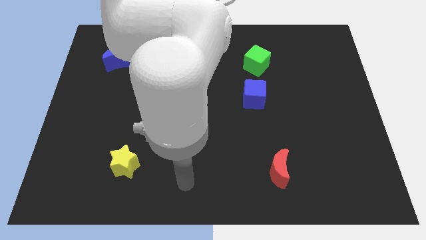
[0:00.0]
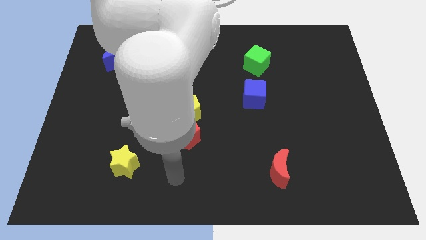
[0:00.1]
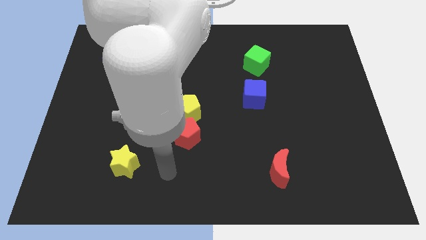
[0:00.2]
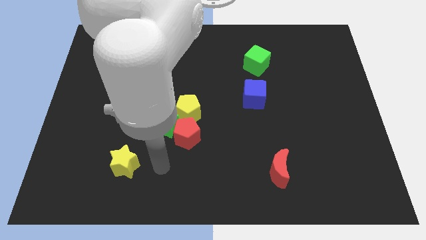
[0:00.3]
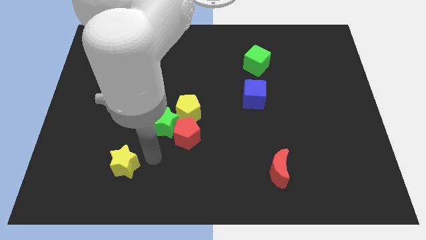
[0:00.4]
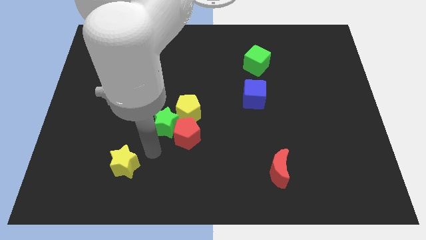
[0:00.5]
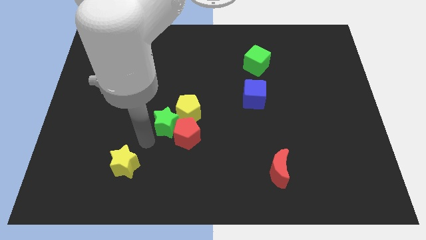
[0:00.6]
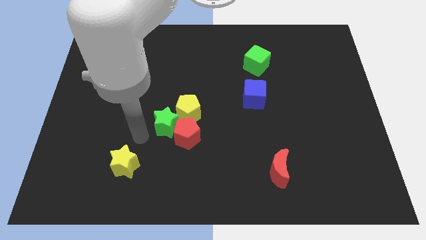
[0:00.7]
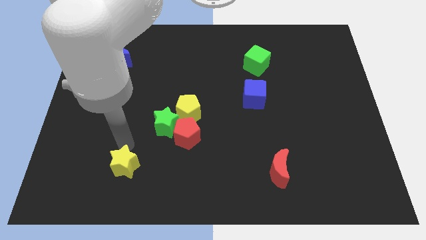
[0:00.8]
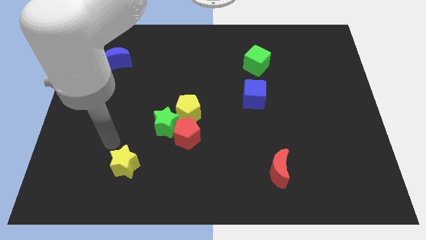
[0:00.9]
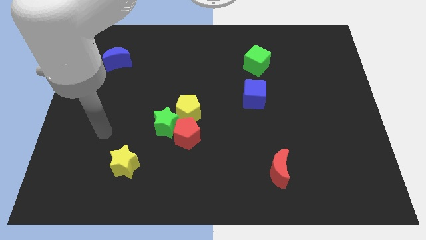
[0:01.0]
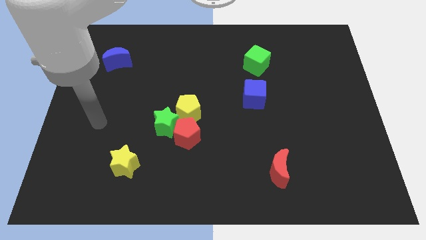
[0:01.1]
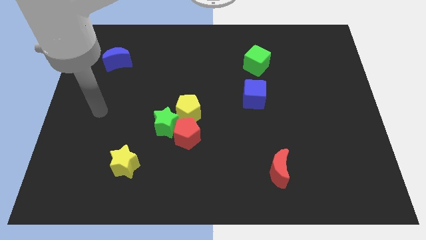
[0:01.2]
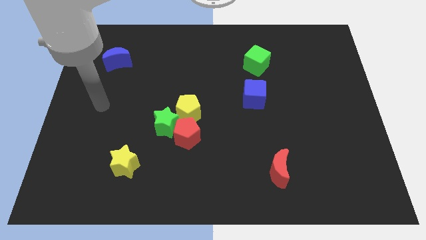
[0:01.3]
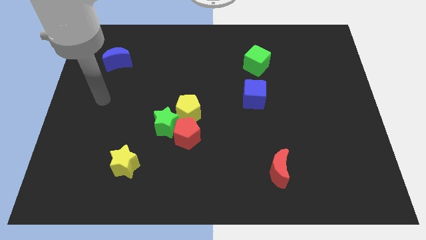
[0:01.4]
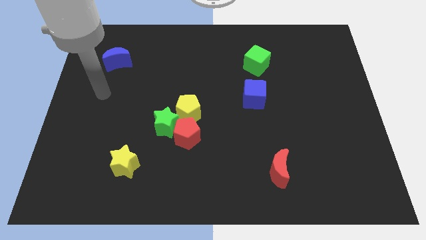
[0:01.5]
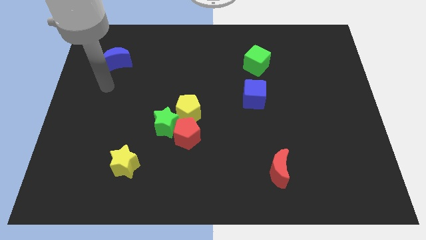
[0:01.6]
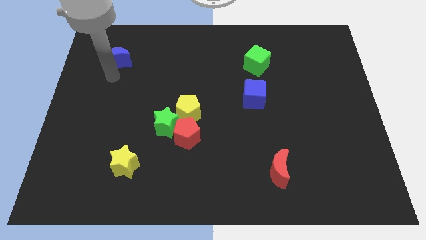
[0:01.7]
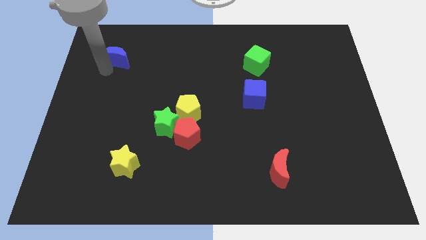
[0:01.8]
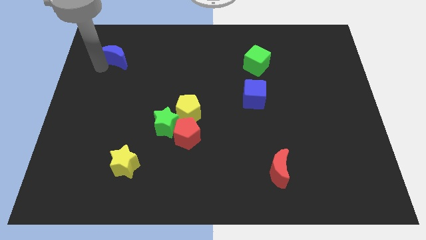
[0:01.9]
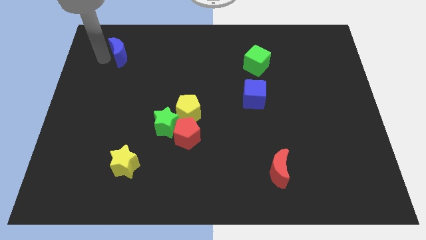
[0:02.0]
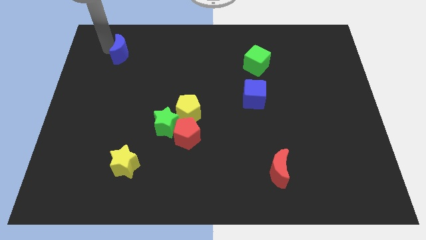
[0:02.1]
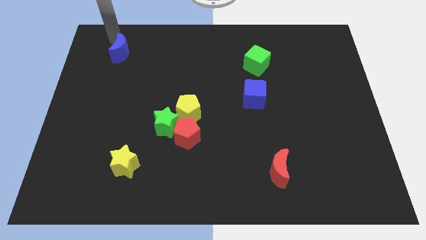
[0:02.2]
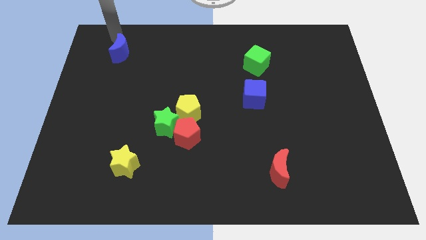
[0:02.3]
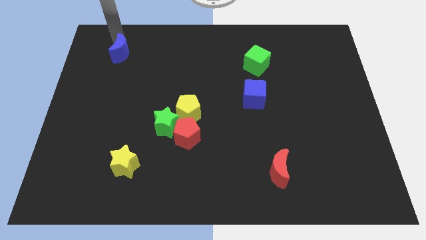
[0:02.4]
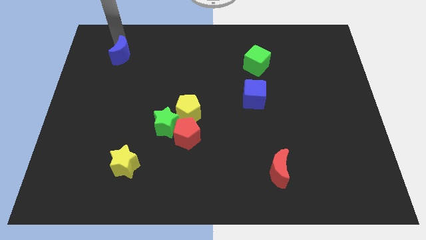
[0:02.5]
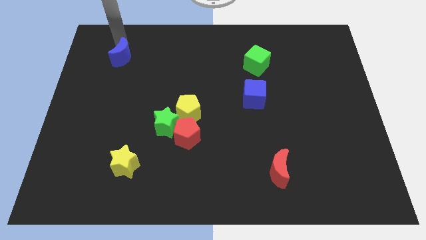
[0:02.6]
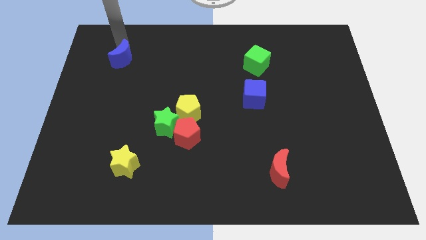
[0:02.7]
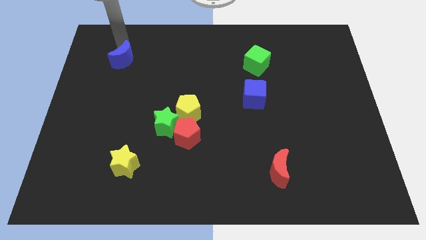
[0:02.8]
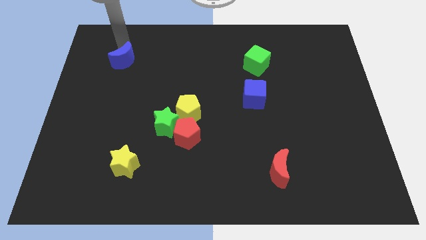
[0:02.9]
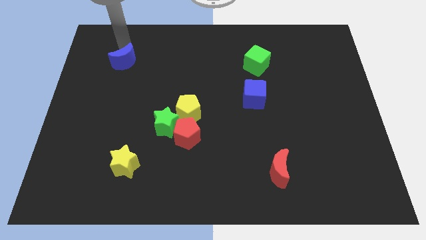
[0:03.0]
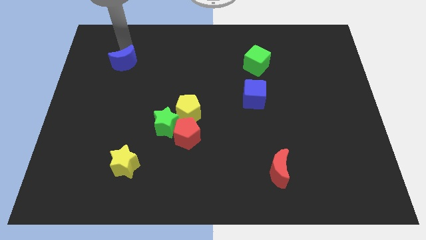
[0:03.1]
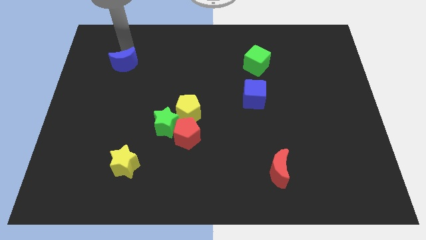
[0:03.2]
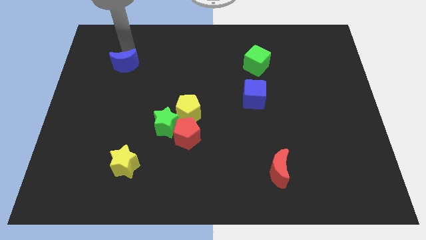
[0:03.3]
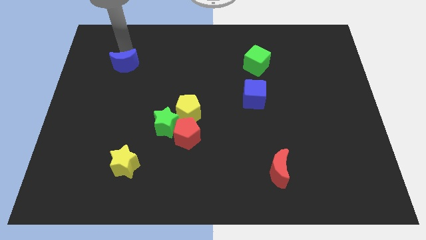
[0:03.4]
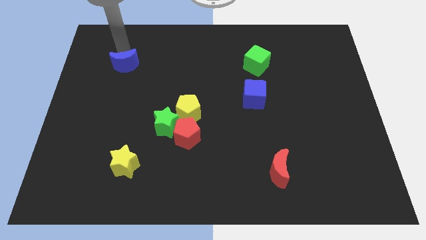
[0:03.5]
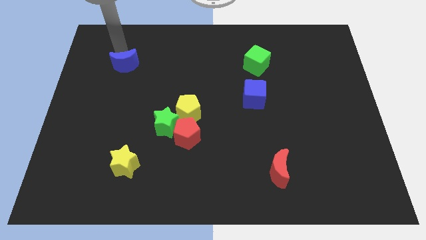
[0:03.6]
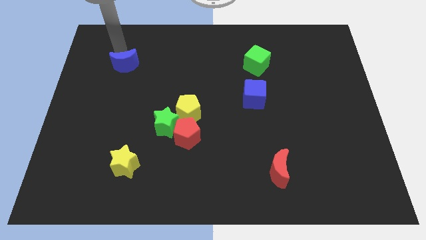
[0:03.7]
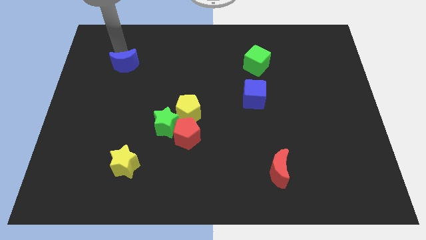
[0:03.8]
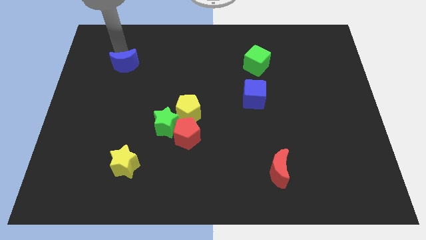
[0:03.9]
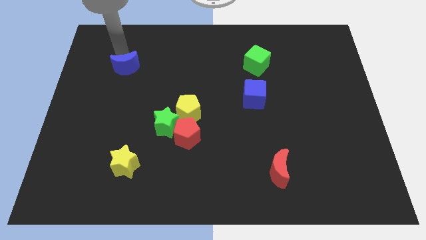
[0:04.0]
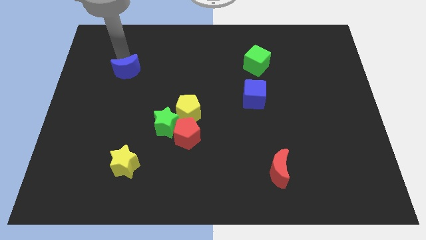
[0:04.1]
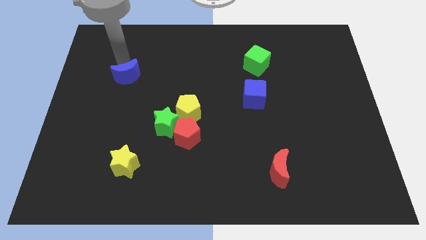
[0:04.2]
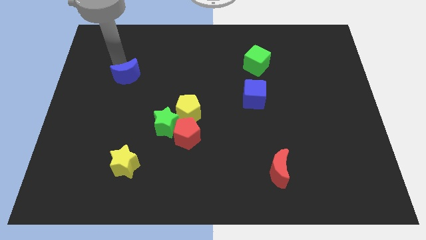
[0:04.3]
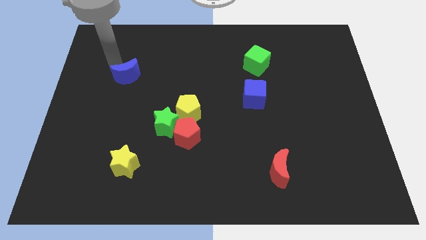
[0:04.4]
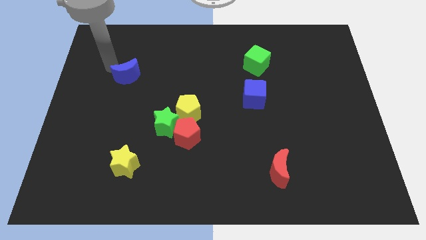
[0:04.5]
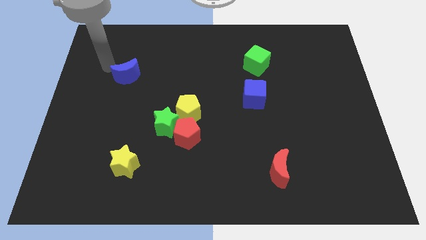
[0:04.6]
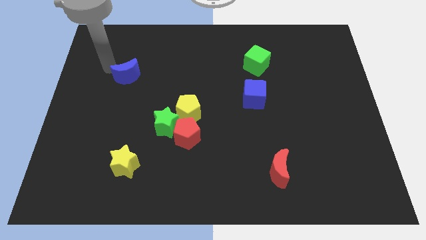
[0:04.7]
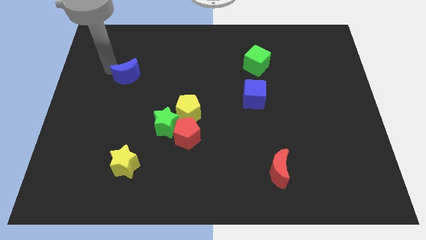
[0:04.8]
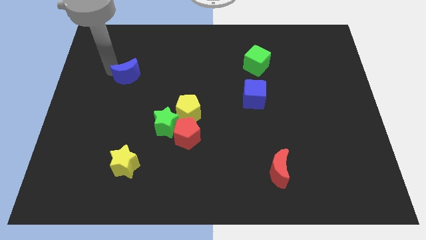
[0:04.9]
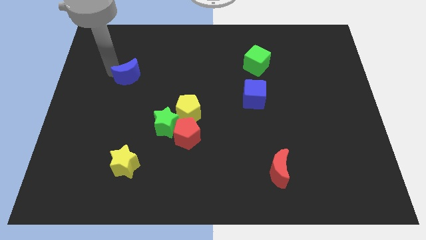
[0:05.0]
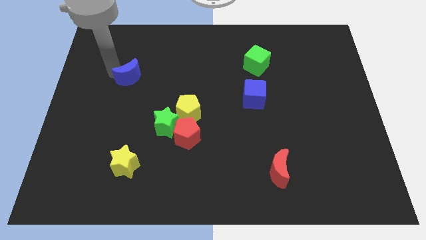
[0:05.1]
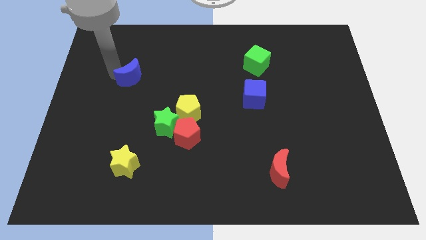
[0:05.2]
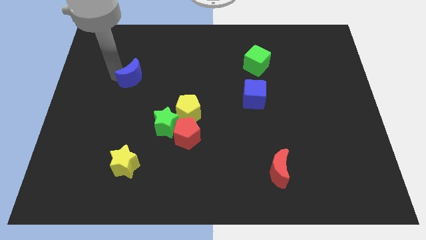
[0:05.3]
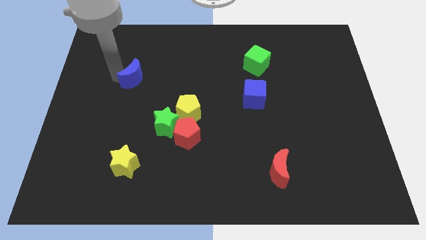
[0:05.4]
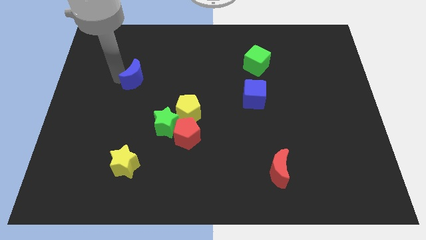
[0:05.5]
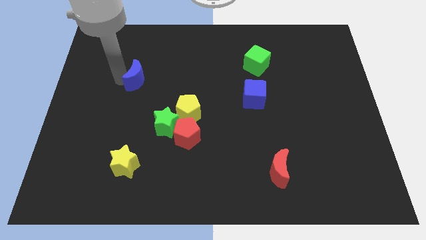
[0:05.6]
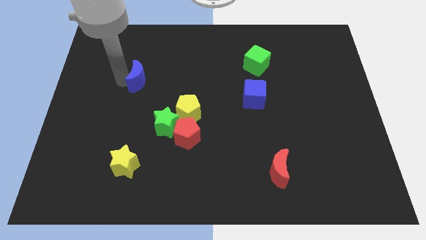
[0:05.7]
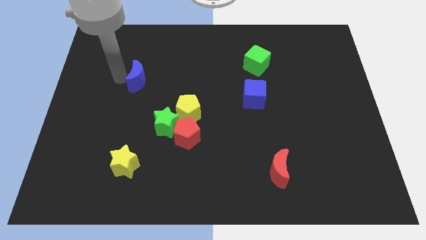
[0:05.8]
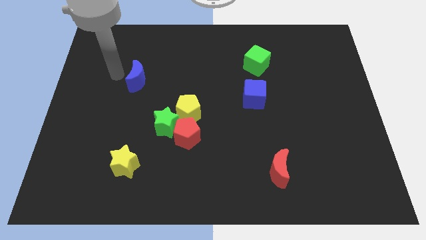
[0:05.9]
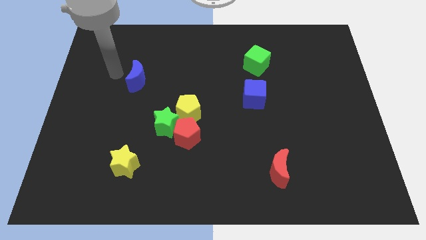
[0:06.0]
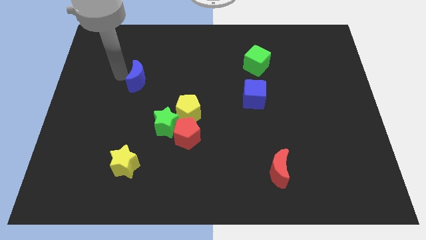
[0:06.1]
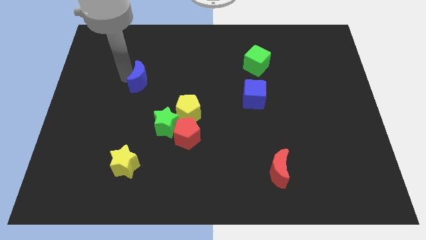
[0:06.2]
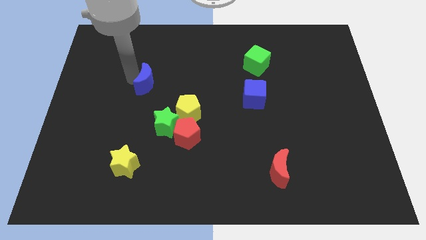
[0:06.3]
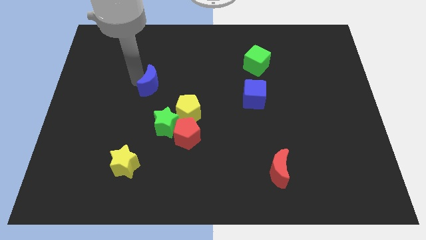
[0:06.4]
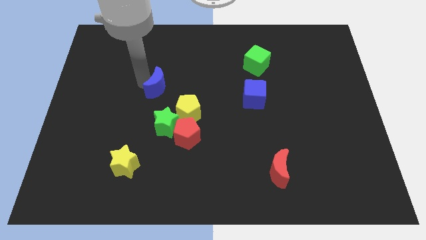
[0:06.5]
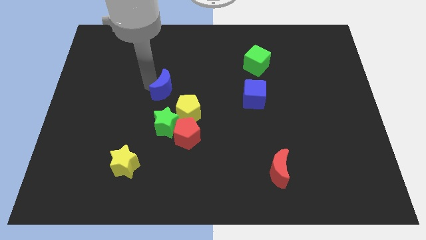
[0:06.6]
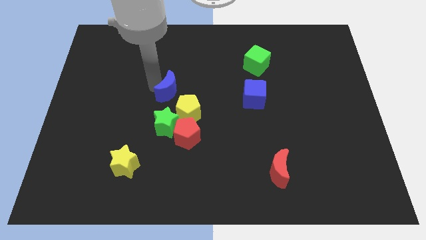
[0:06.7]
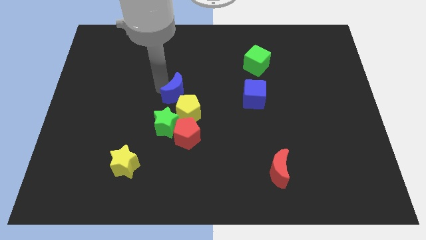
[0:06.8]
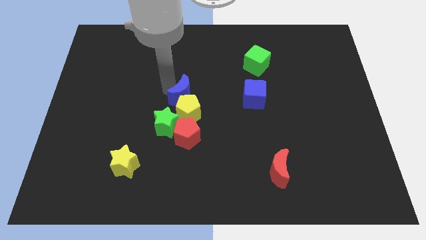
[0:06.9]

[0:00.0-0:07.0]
push the blue moon to the top right of the green star

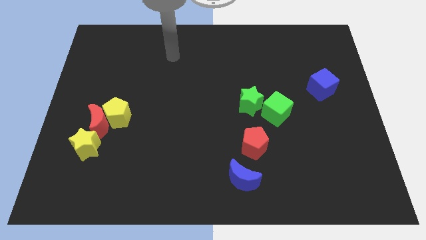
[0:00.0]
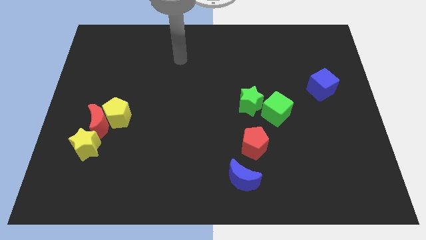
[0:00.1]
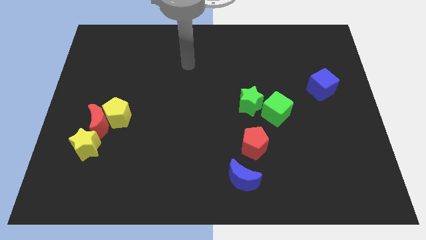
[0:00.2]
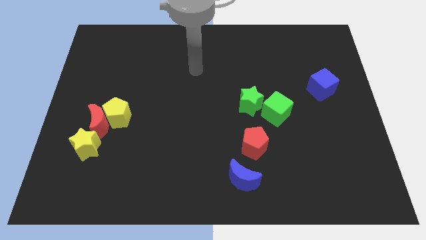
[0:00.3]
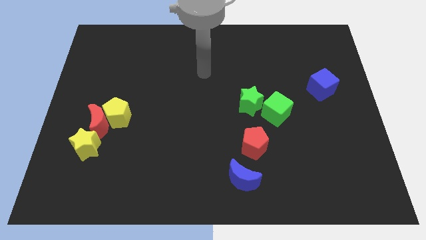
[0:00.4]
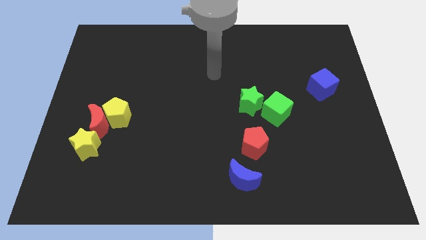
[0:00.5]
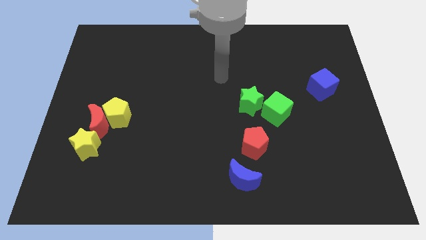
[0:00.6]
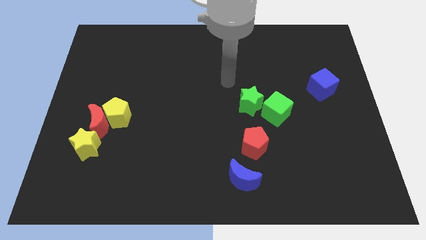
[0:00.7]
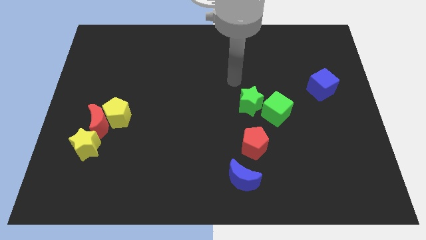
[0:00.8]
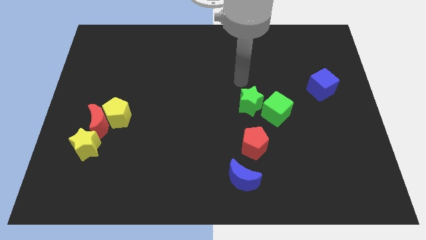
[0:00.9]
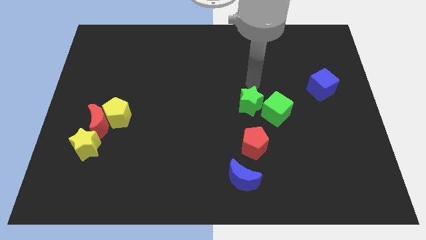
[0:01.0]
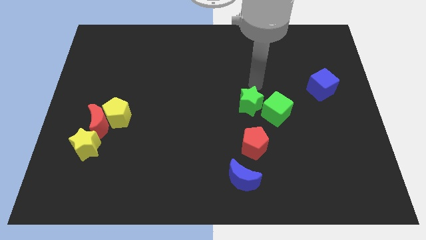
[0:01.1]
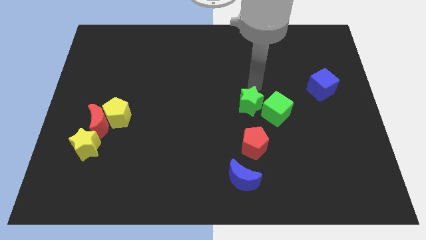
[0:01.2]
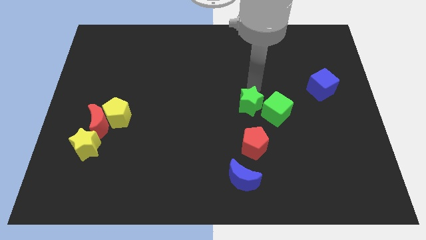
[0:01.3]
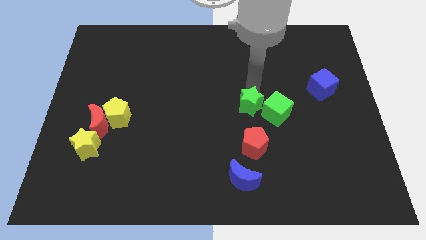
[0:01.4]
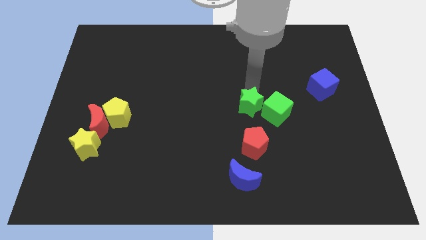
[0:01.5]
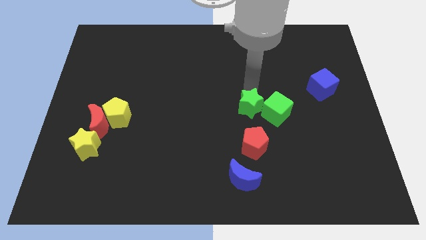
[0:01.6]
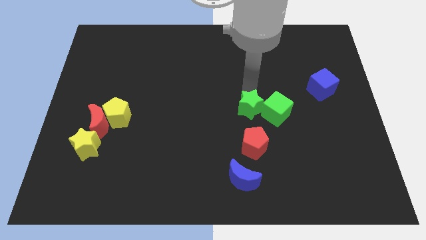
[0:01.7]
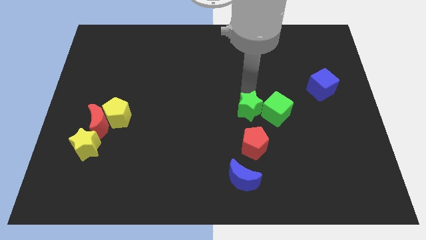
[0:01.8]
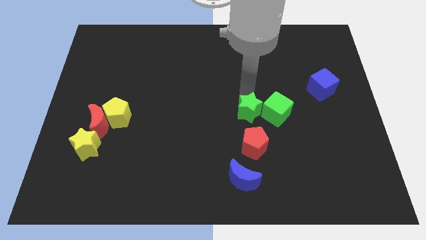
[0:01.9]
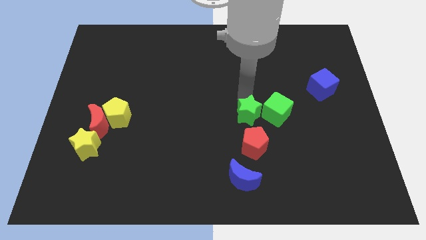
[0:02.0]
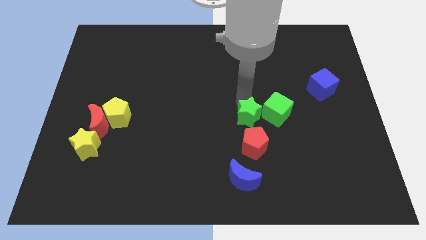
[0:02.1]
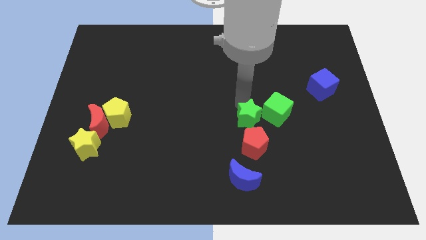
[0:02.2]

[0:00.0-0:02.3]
put the green star to the top side of the blue moon
